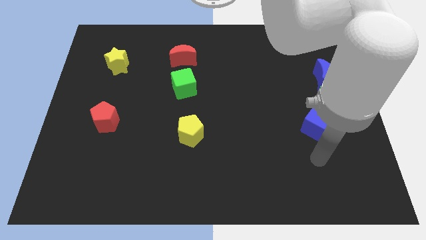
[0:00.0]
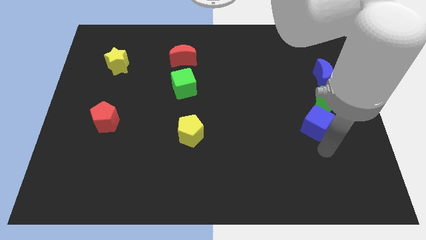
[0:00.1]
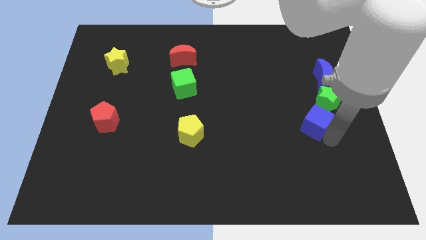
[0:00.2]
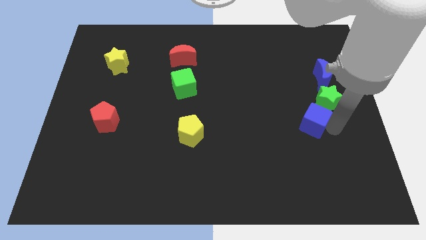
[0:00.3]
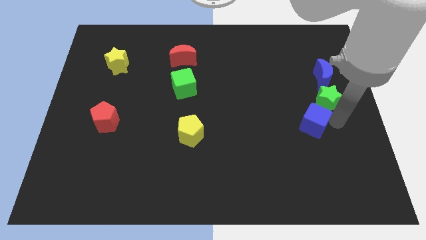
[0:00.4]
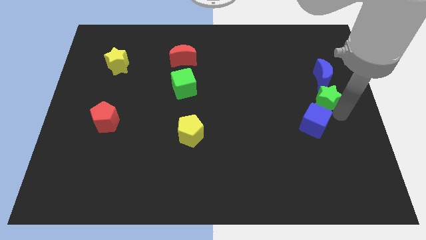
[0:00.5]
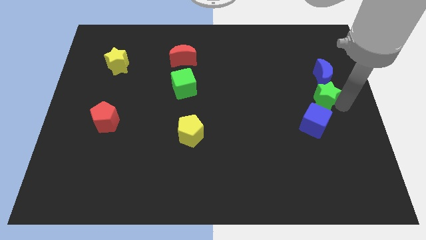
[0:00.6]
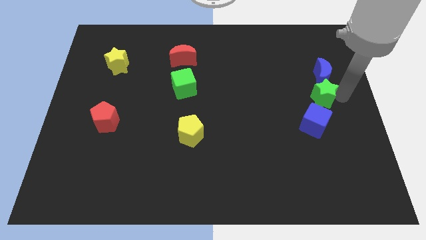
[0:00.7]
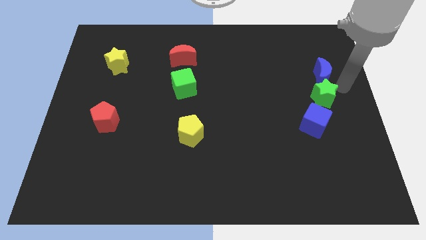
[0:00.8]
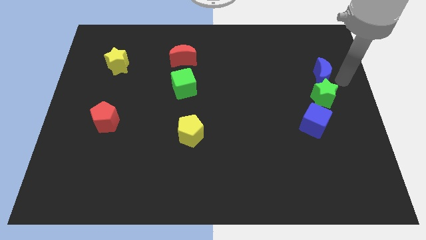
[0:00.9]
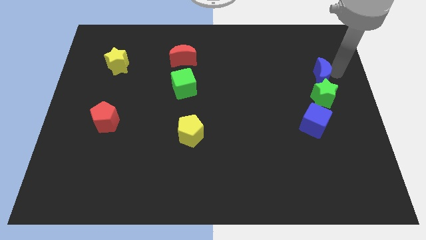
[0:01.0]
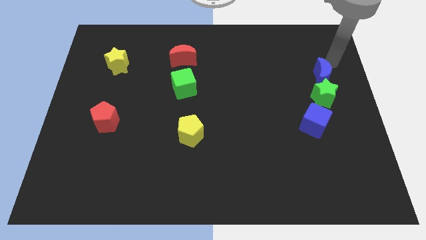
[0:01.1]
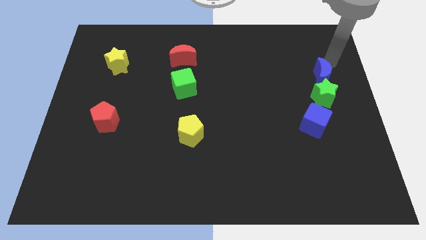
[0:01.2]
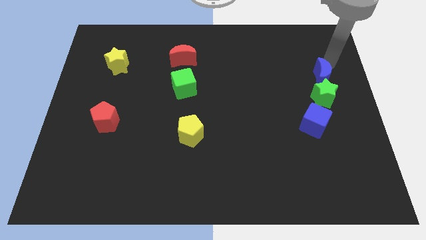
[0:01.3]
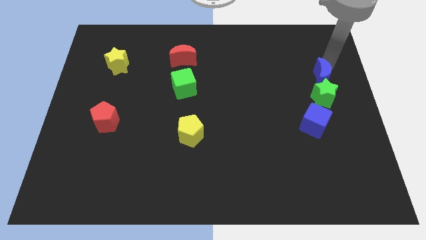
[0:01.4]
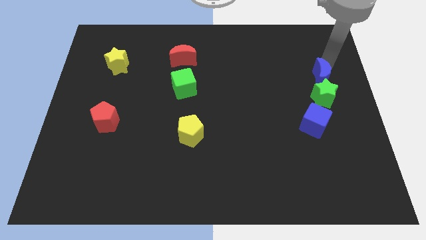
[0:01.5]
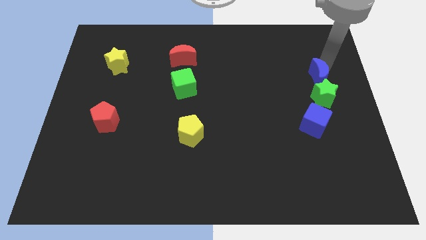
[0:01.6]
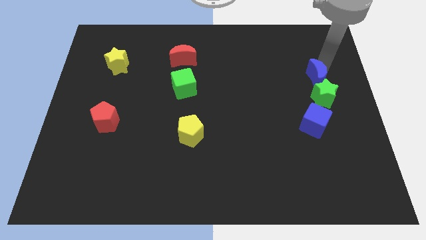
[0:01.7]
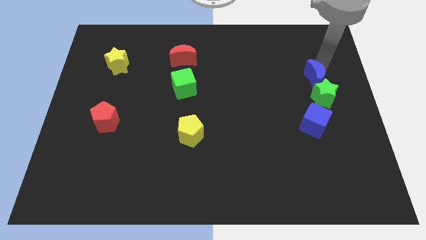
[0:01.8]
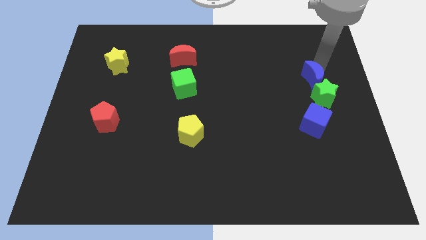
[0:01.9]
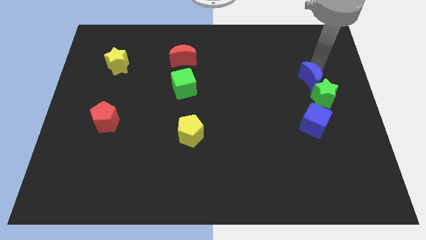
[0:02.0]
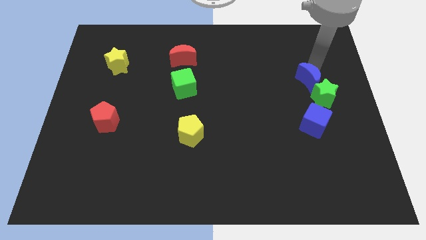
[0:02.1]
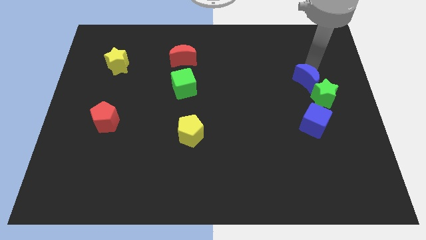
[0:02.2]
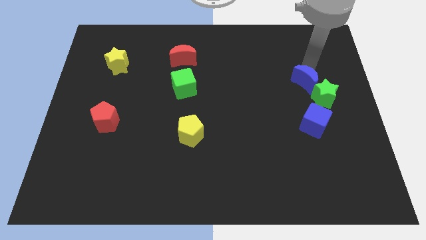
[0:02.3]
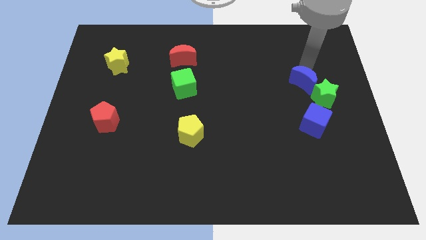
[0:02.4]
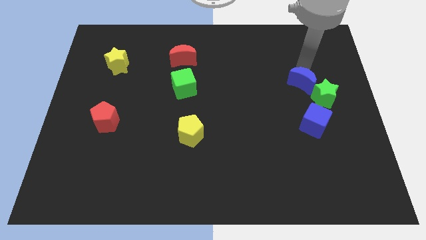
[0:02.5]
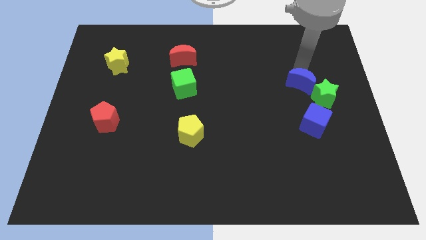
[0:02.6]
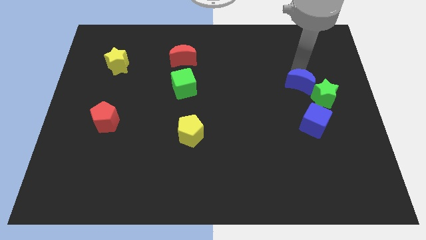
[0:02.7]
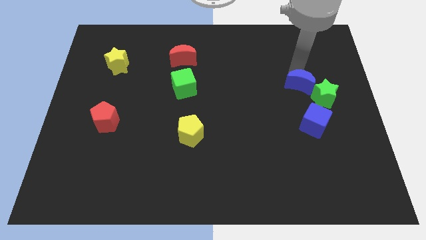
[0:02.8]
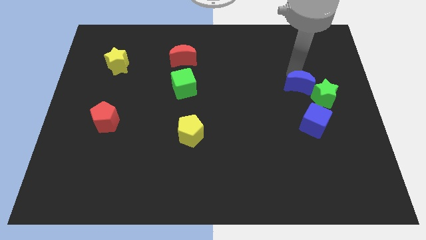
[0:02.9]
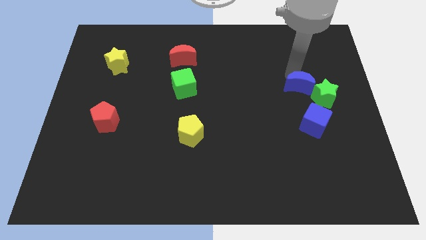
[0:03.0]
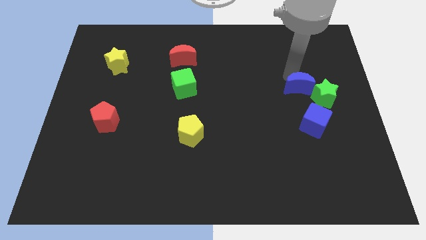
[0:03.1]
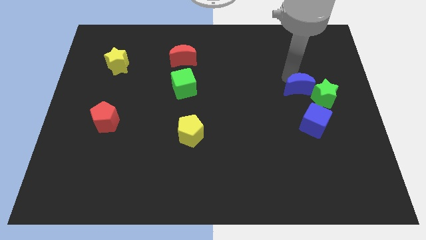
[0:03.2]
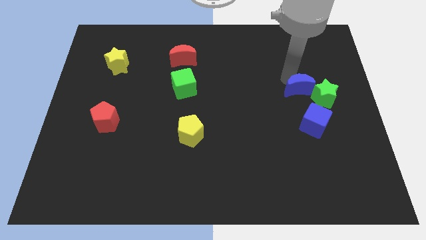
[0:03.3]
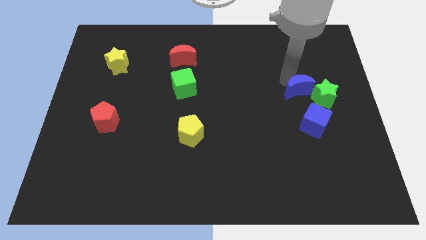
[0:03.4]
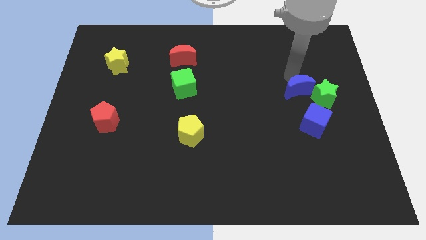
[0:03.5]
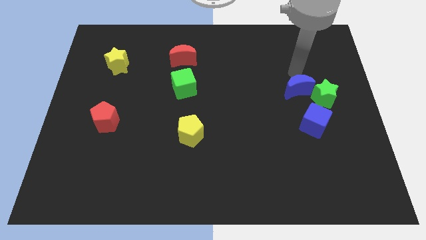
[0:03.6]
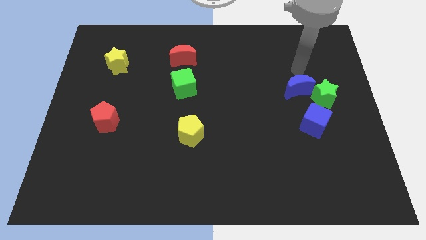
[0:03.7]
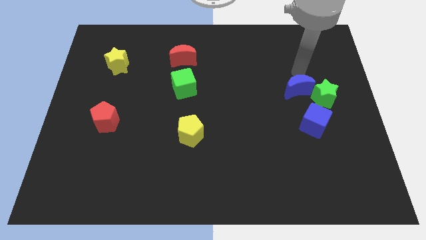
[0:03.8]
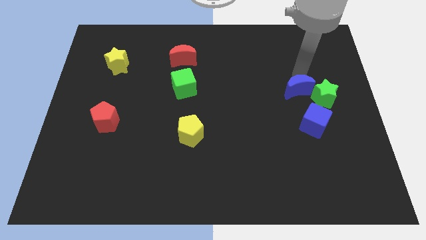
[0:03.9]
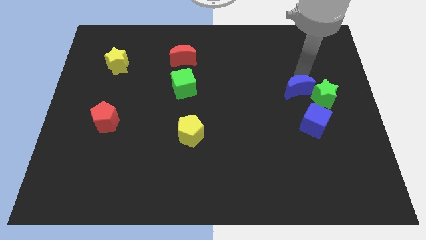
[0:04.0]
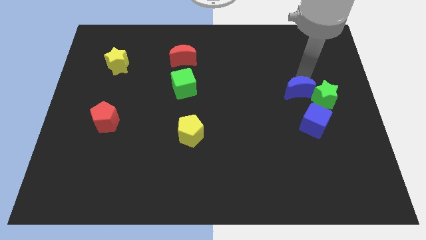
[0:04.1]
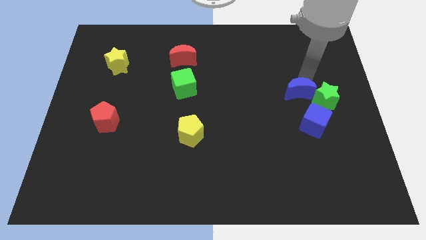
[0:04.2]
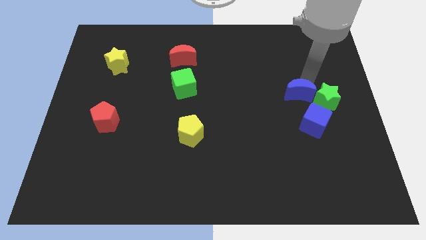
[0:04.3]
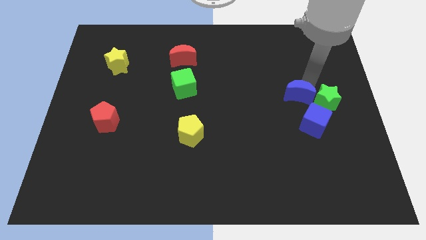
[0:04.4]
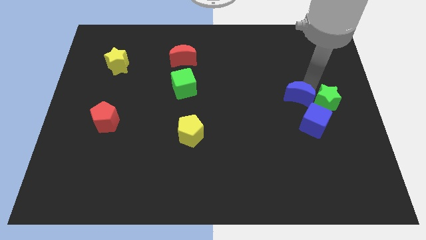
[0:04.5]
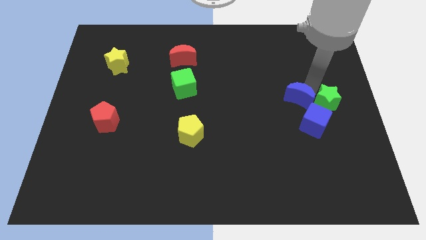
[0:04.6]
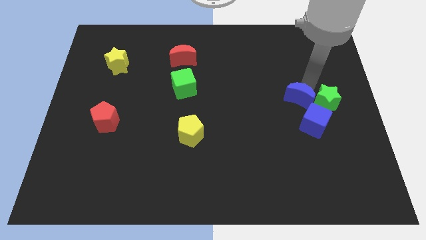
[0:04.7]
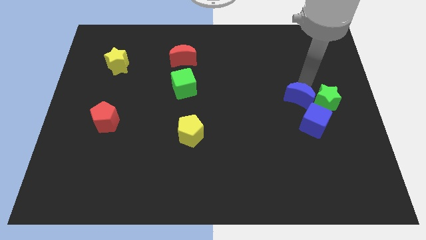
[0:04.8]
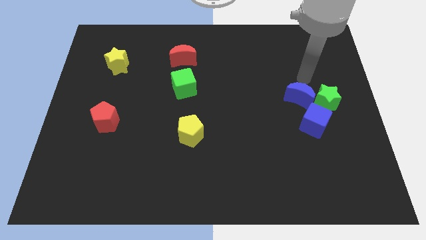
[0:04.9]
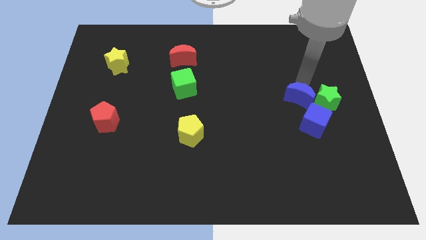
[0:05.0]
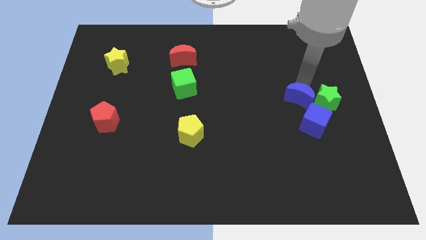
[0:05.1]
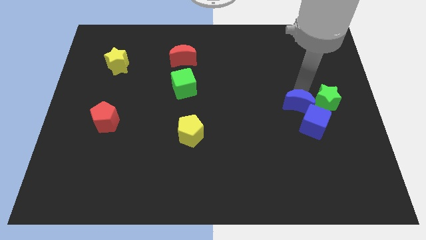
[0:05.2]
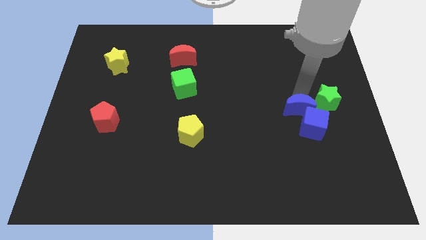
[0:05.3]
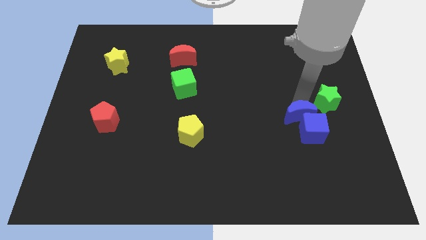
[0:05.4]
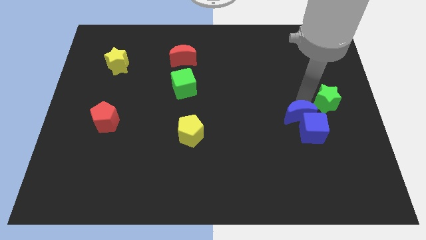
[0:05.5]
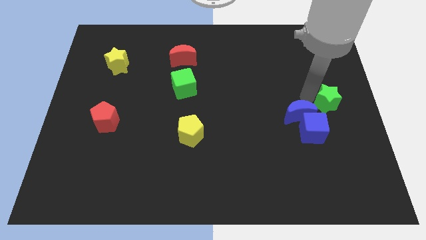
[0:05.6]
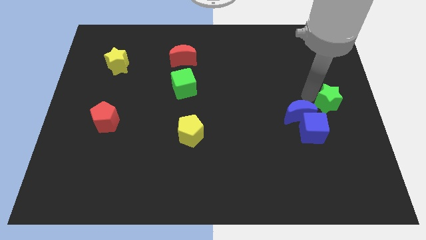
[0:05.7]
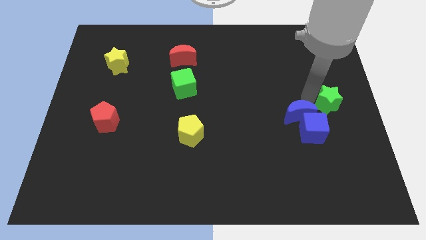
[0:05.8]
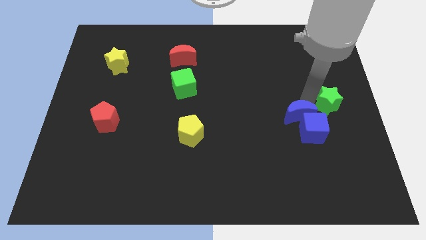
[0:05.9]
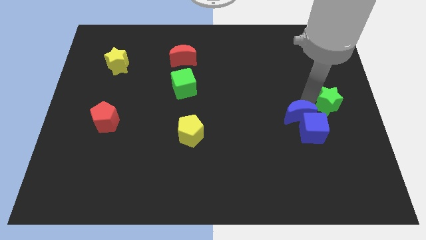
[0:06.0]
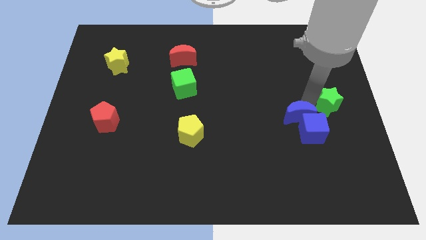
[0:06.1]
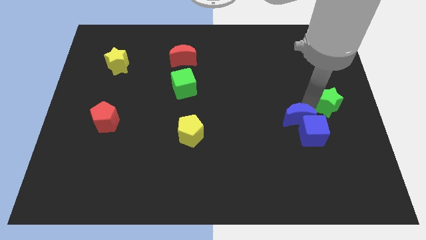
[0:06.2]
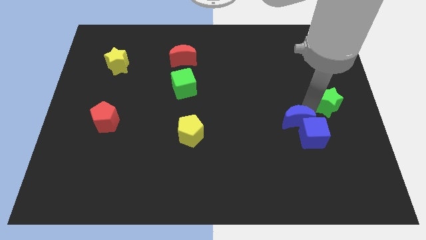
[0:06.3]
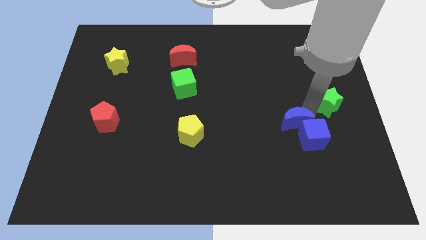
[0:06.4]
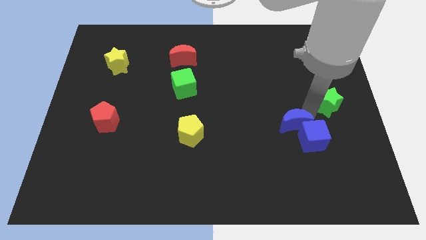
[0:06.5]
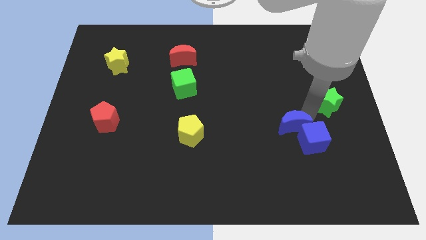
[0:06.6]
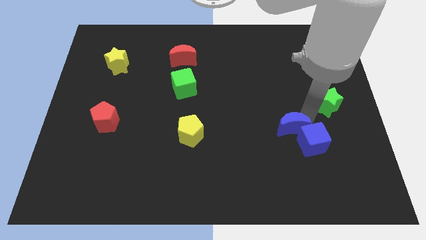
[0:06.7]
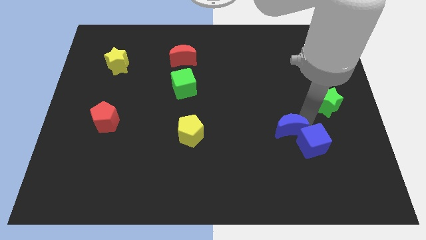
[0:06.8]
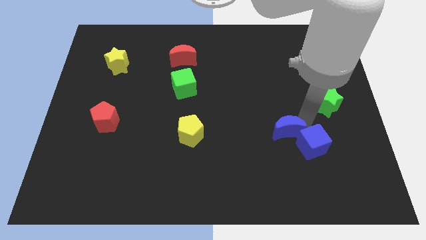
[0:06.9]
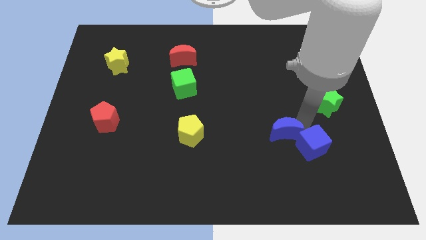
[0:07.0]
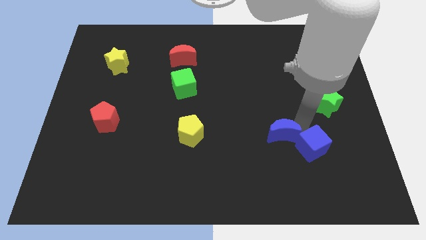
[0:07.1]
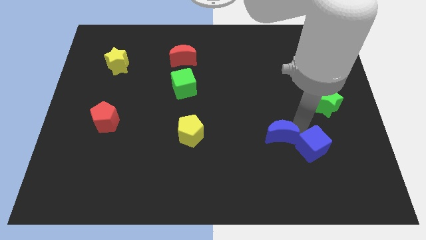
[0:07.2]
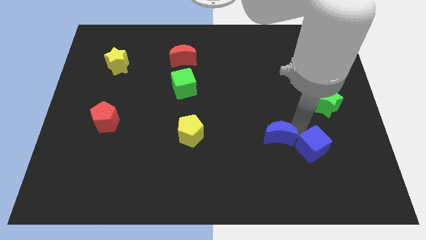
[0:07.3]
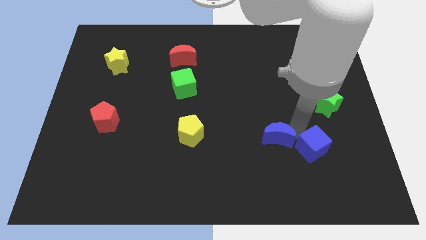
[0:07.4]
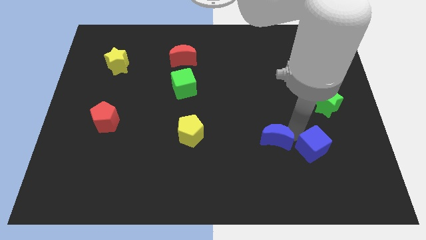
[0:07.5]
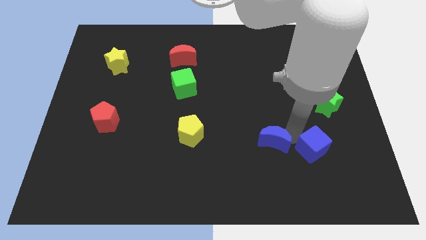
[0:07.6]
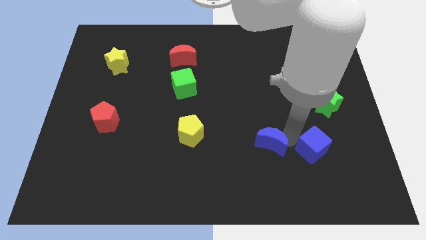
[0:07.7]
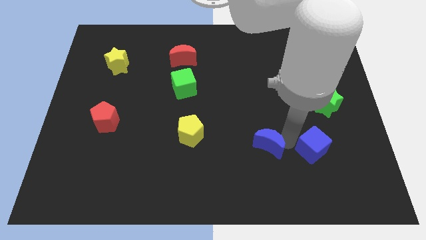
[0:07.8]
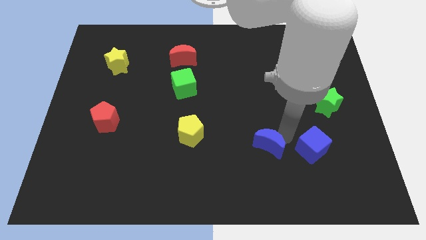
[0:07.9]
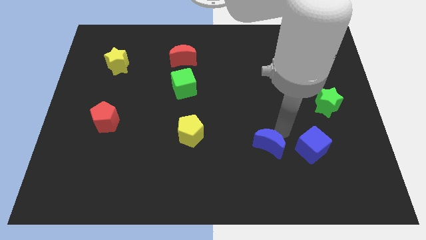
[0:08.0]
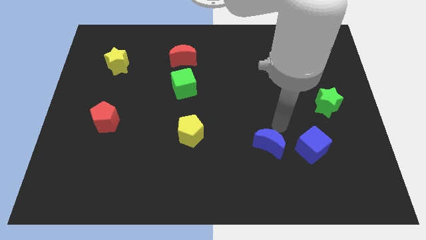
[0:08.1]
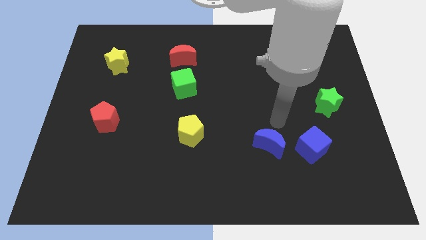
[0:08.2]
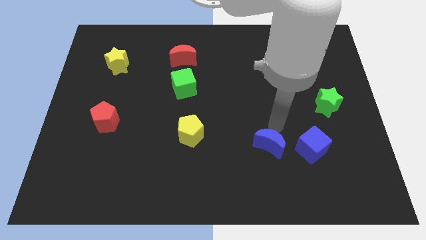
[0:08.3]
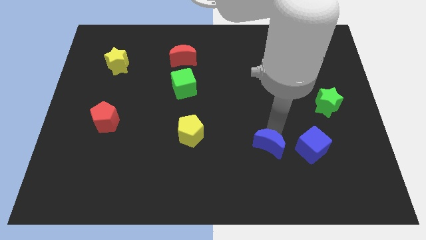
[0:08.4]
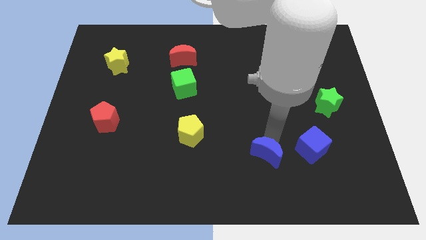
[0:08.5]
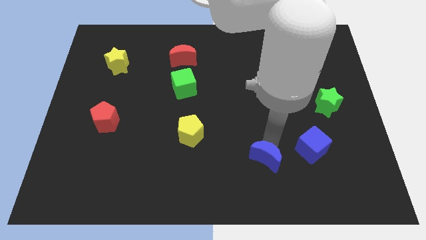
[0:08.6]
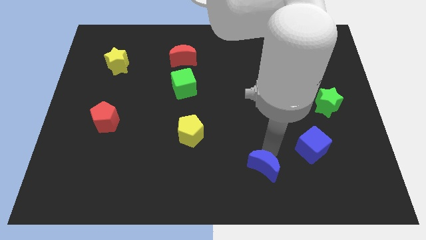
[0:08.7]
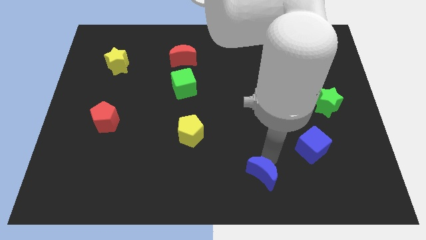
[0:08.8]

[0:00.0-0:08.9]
slide the blue moon to the bottom
